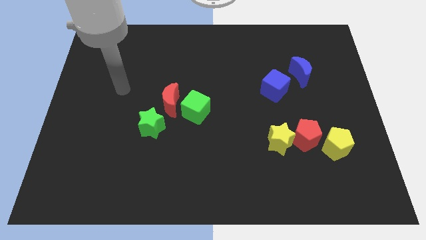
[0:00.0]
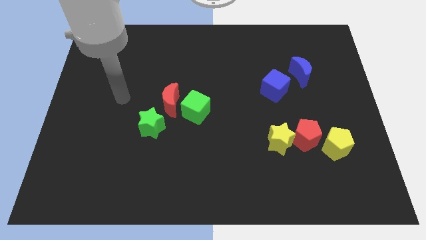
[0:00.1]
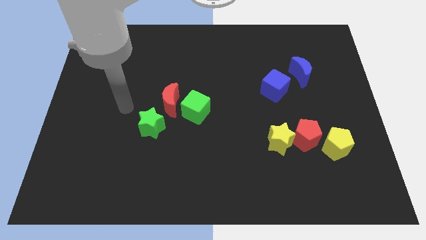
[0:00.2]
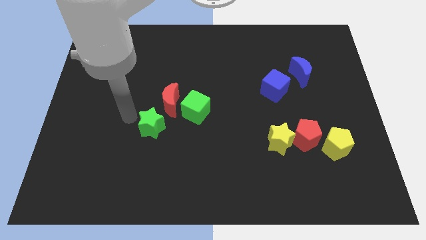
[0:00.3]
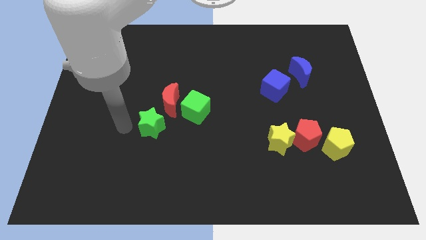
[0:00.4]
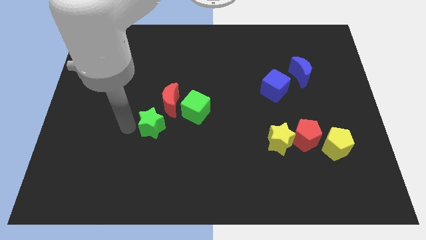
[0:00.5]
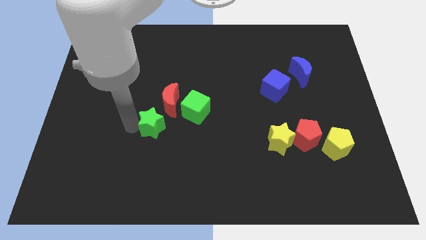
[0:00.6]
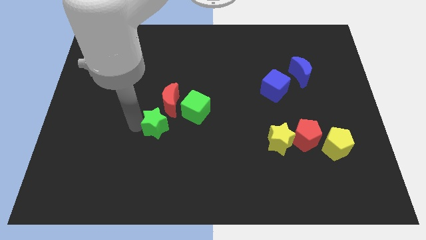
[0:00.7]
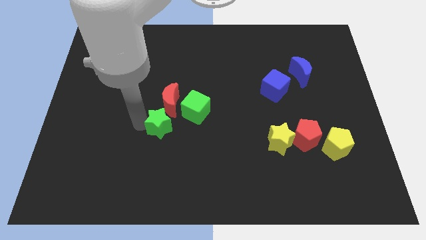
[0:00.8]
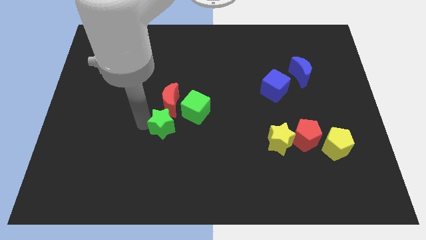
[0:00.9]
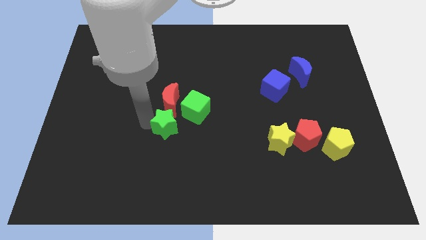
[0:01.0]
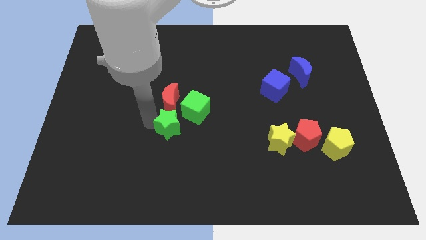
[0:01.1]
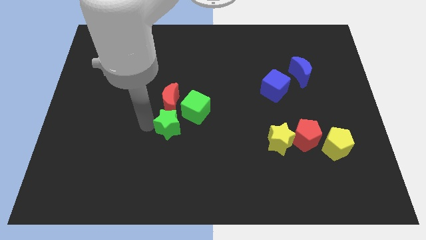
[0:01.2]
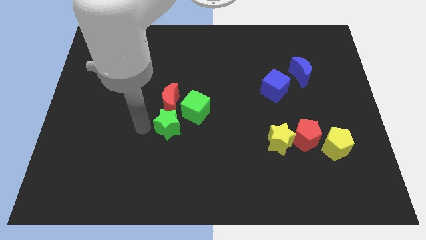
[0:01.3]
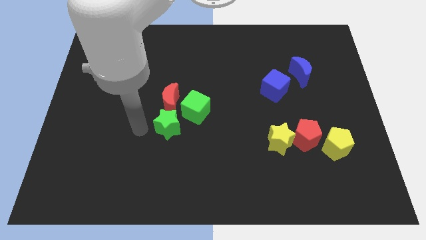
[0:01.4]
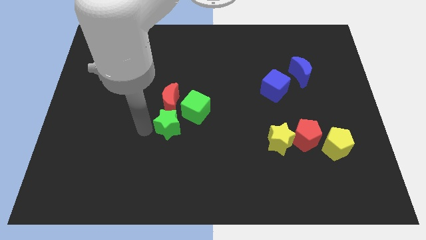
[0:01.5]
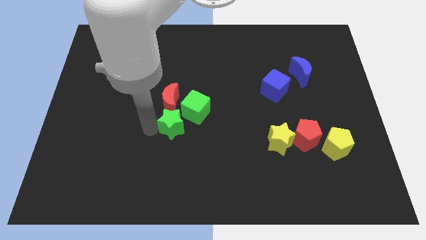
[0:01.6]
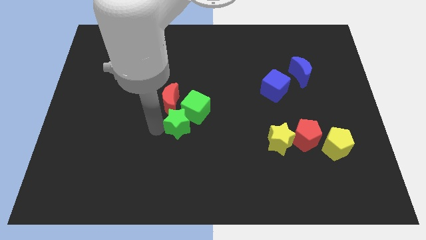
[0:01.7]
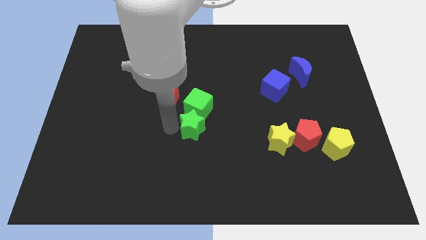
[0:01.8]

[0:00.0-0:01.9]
move the green star right somewhat

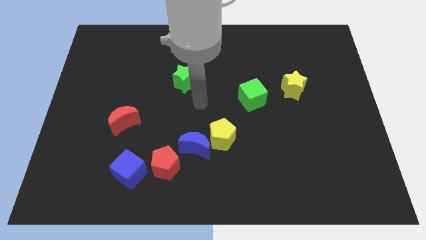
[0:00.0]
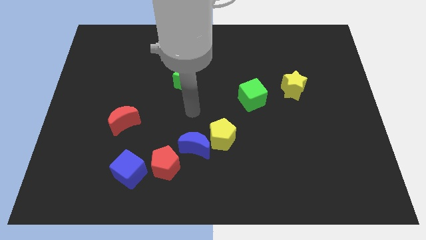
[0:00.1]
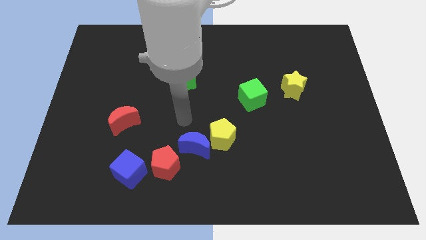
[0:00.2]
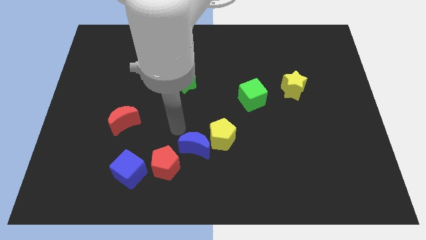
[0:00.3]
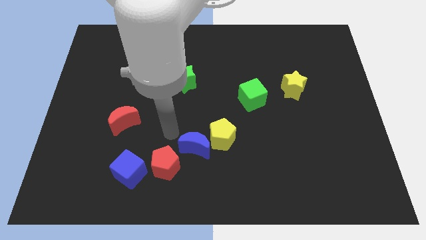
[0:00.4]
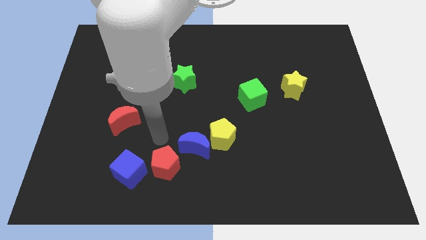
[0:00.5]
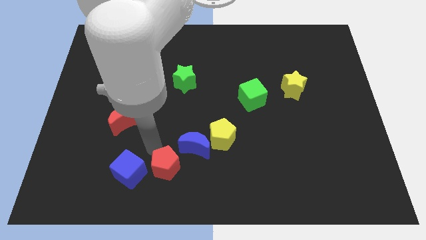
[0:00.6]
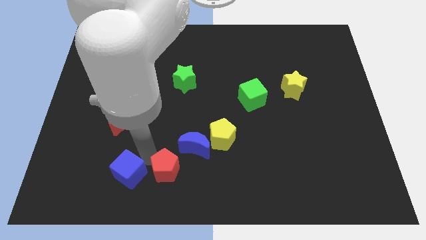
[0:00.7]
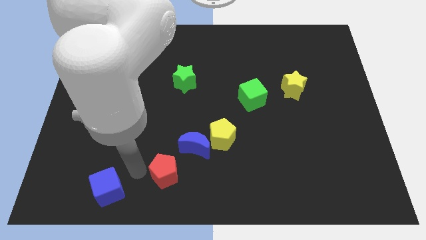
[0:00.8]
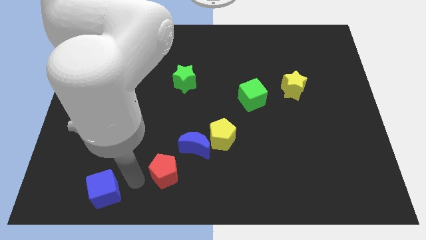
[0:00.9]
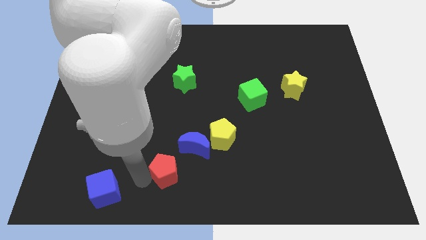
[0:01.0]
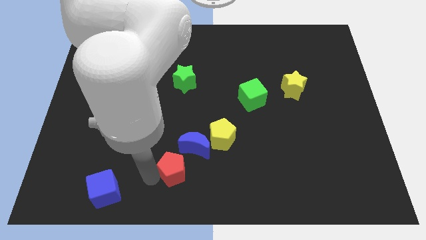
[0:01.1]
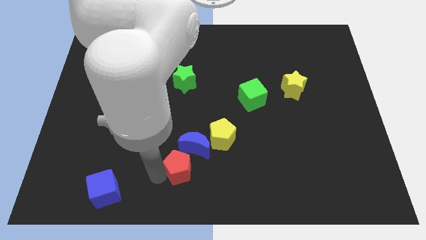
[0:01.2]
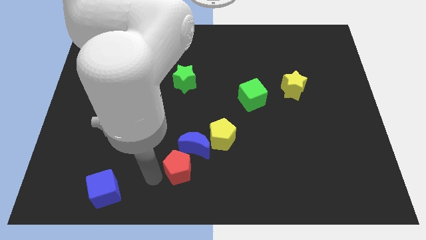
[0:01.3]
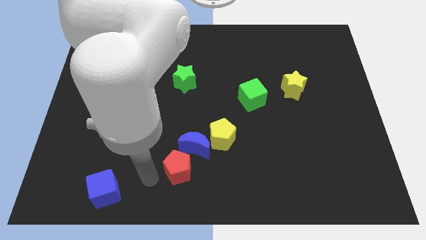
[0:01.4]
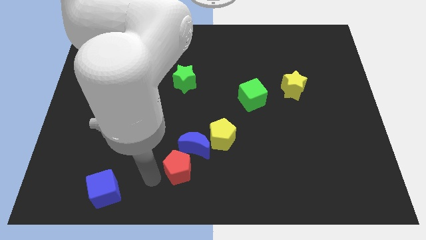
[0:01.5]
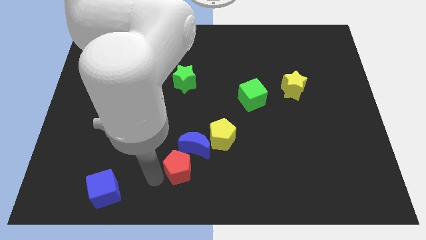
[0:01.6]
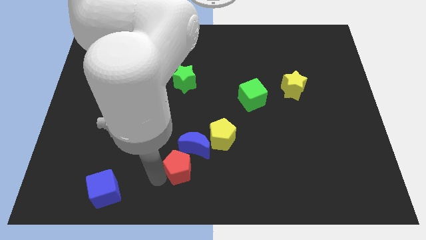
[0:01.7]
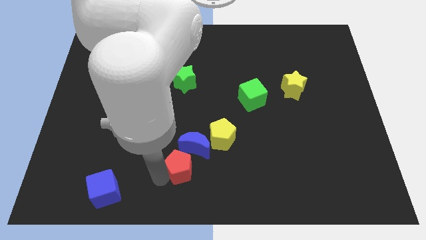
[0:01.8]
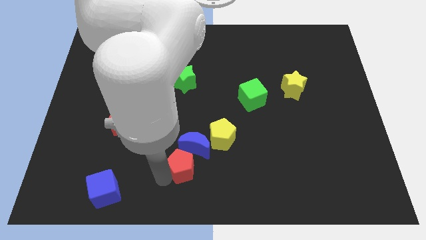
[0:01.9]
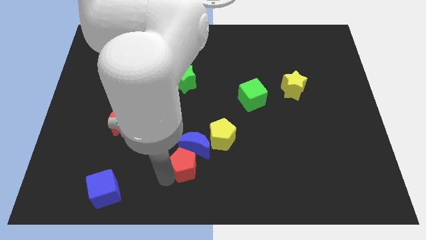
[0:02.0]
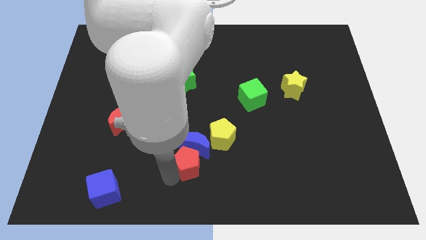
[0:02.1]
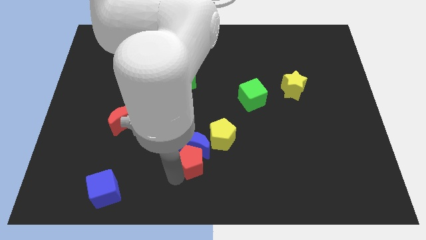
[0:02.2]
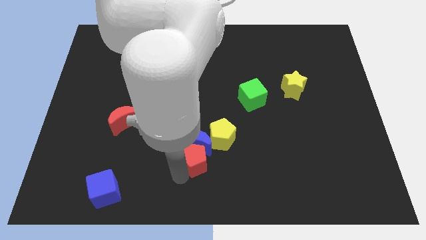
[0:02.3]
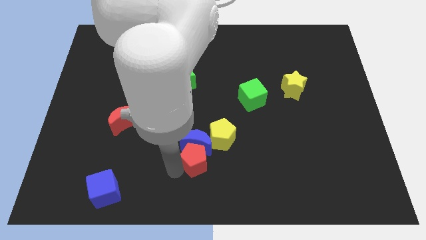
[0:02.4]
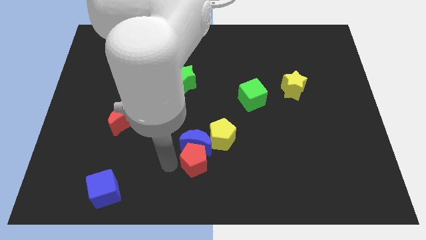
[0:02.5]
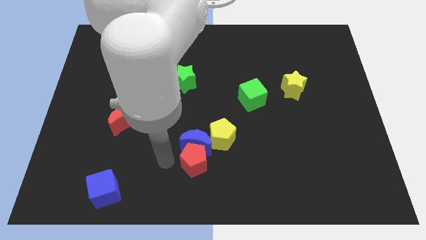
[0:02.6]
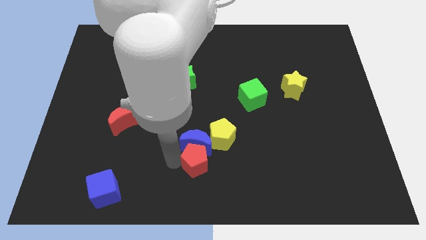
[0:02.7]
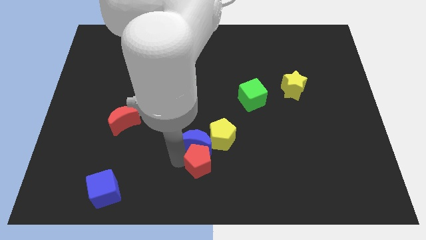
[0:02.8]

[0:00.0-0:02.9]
move the red pentagon a little right

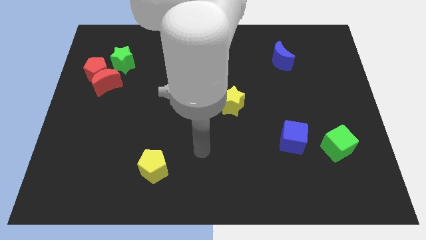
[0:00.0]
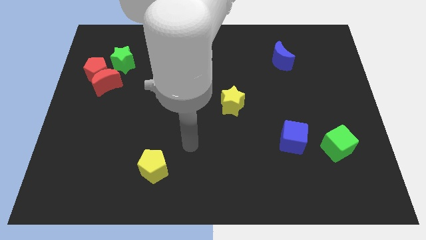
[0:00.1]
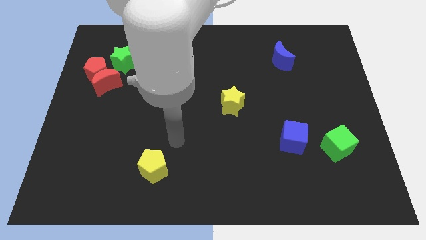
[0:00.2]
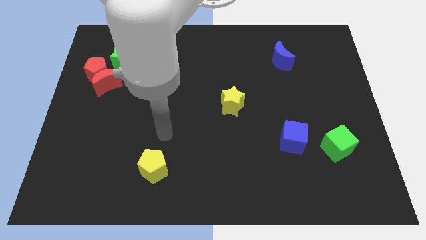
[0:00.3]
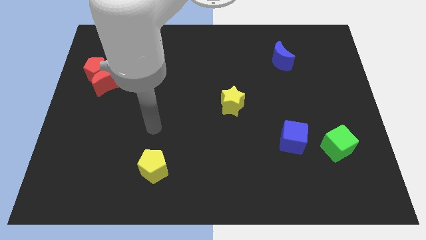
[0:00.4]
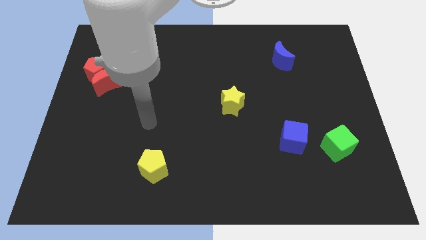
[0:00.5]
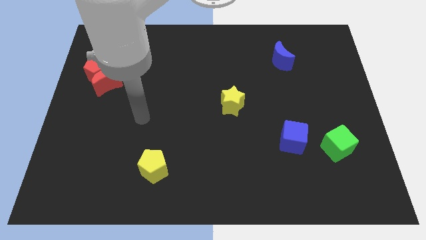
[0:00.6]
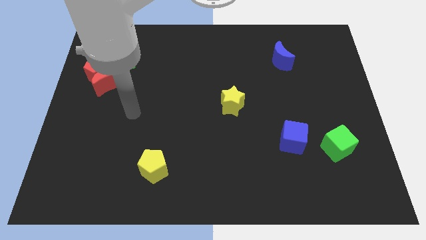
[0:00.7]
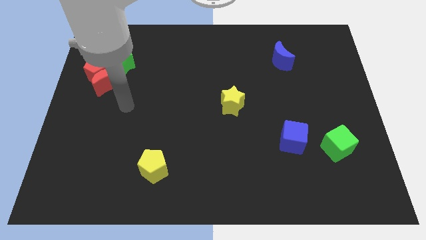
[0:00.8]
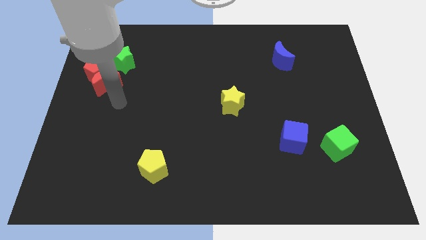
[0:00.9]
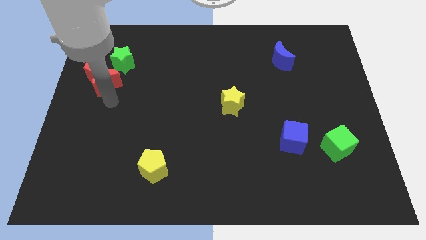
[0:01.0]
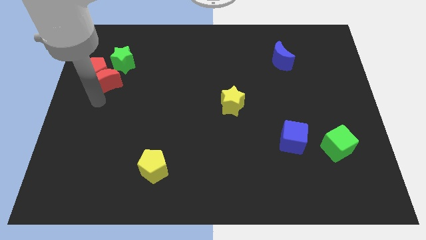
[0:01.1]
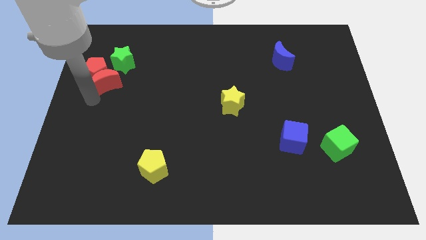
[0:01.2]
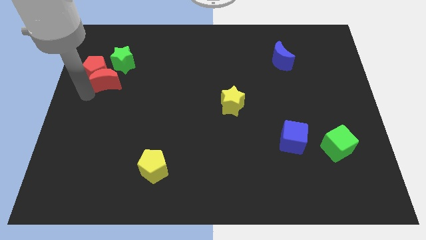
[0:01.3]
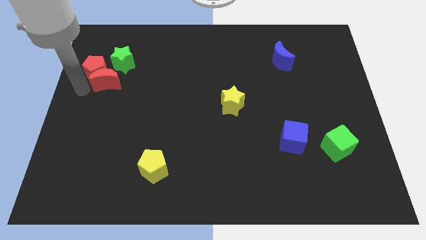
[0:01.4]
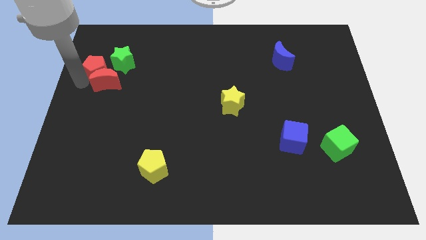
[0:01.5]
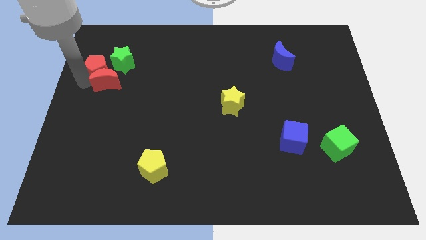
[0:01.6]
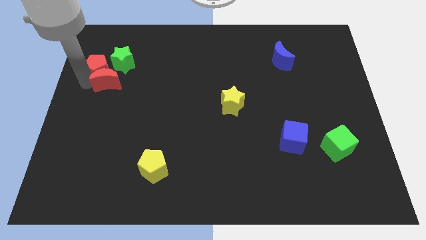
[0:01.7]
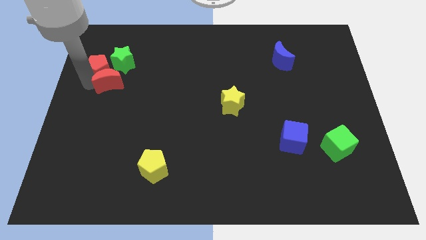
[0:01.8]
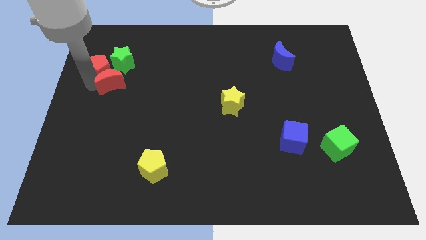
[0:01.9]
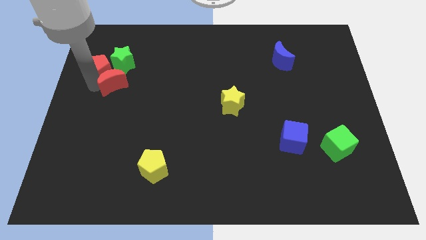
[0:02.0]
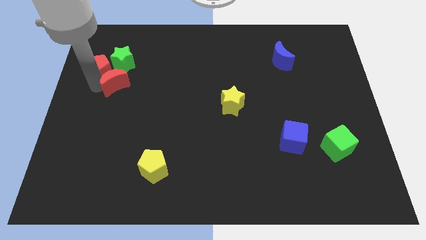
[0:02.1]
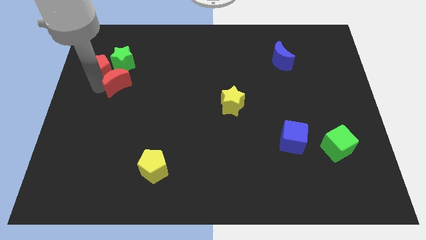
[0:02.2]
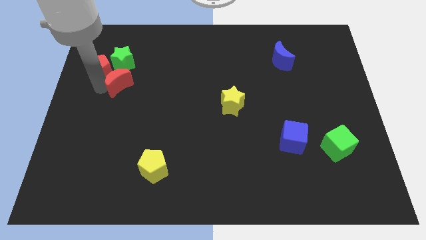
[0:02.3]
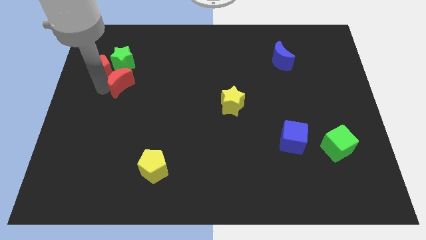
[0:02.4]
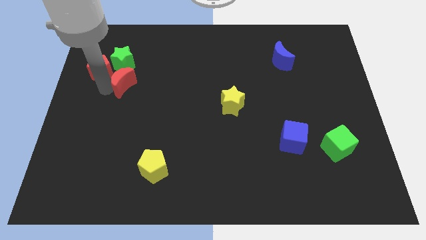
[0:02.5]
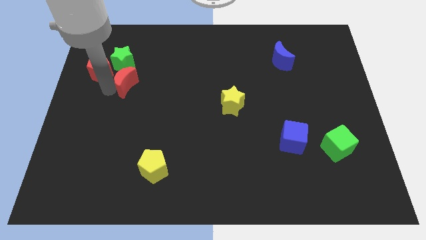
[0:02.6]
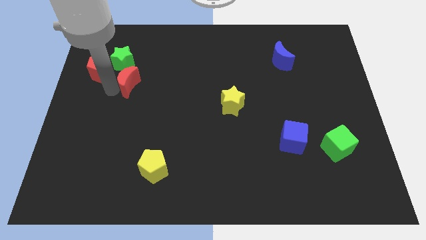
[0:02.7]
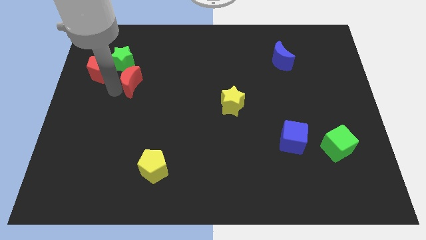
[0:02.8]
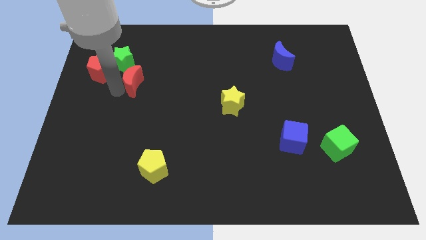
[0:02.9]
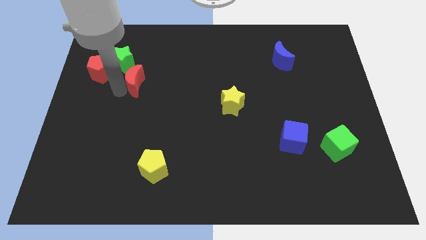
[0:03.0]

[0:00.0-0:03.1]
push the red moon to the right slightly

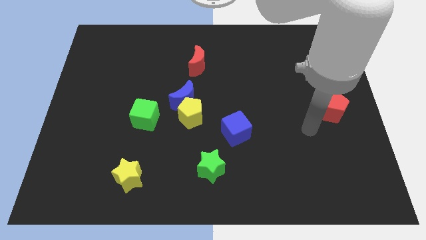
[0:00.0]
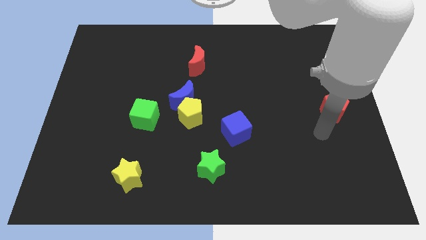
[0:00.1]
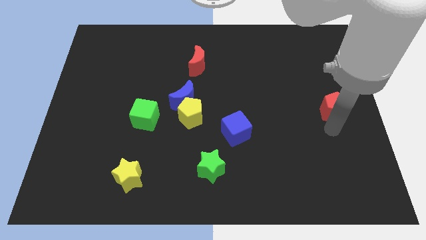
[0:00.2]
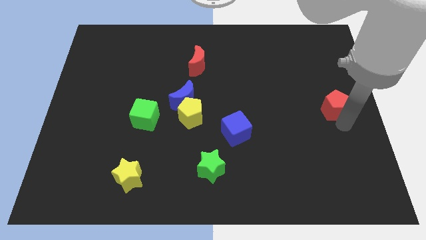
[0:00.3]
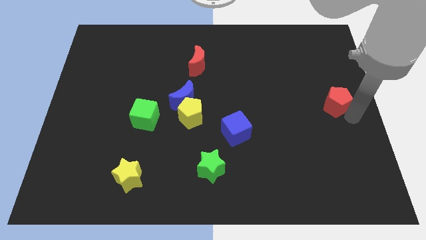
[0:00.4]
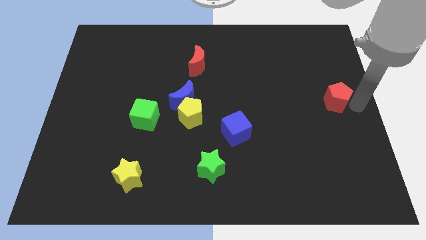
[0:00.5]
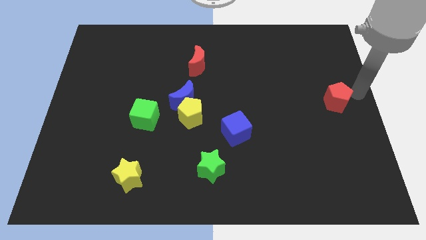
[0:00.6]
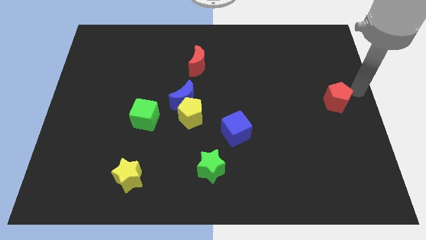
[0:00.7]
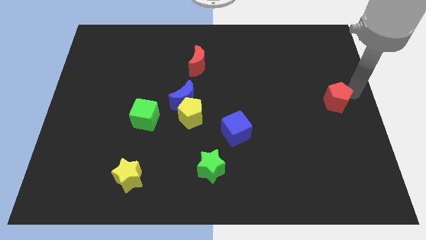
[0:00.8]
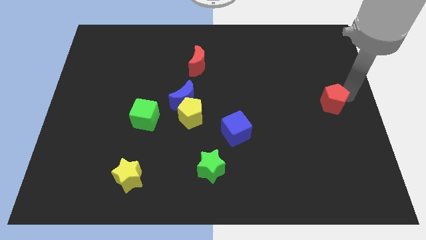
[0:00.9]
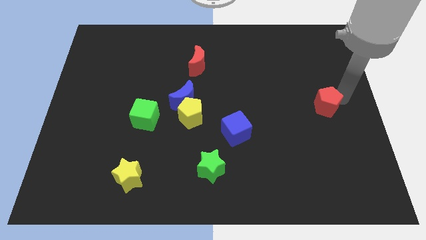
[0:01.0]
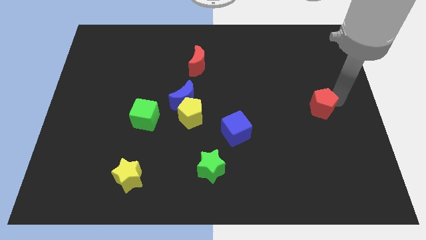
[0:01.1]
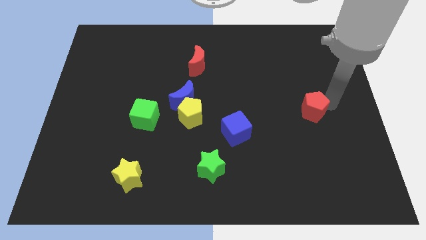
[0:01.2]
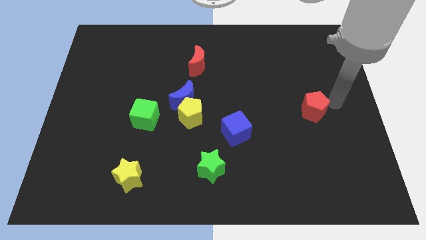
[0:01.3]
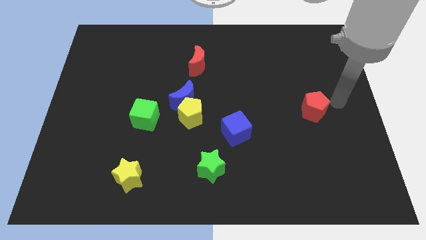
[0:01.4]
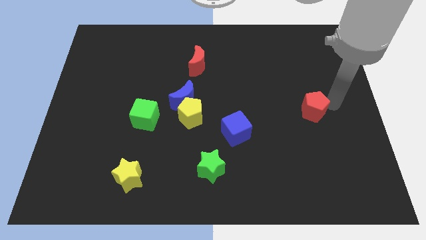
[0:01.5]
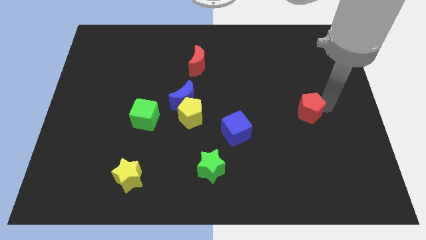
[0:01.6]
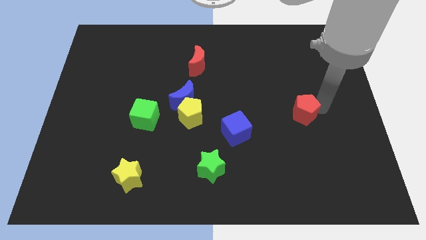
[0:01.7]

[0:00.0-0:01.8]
slightly move the red pentagon to the left
